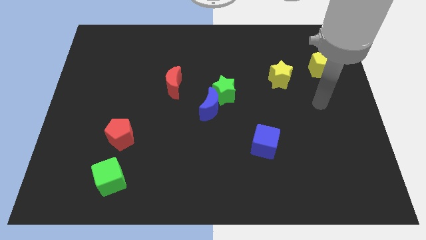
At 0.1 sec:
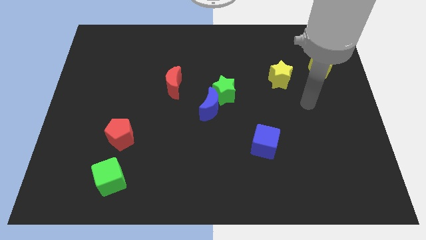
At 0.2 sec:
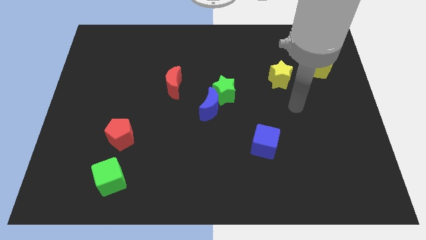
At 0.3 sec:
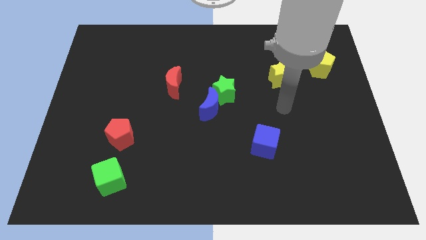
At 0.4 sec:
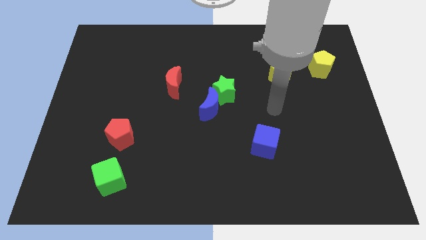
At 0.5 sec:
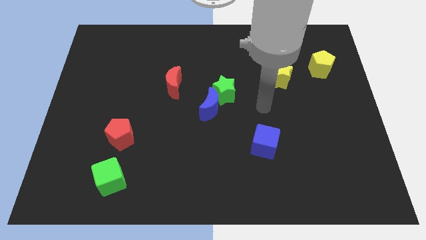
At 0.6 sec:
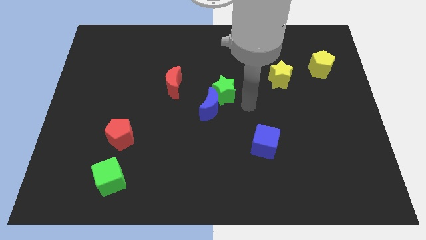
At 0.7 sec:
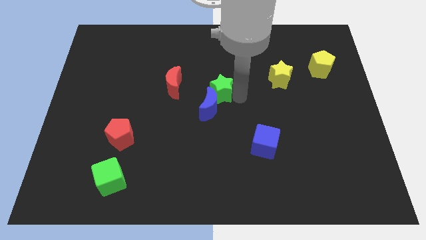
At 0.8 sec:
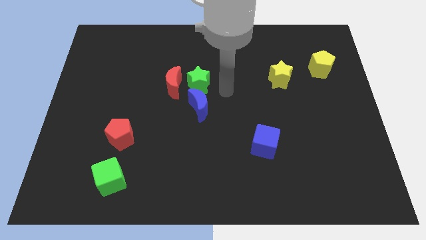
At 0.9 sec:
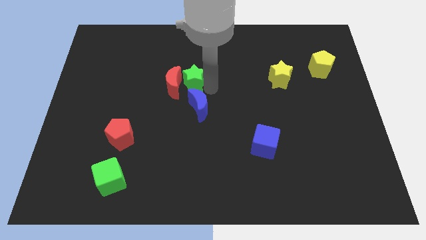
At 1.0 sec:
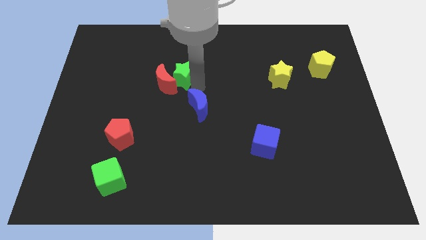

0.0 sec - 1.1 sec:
separate the blue moon from the green star

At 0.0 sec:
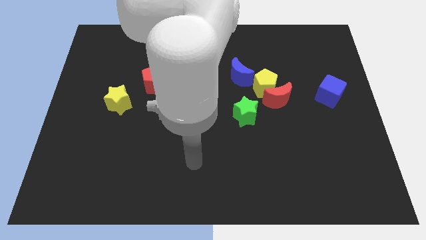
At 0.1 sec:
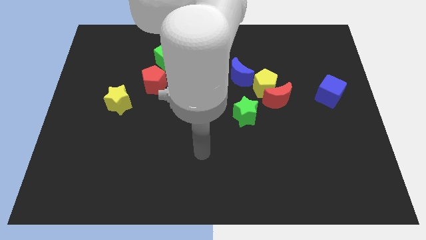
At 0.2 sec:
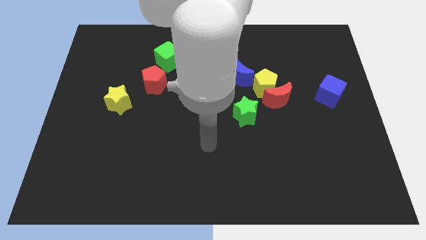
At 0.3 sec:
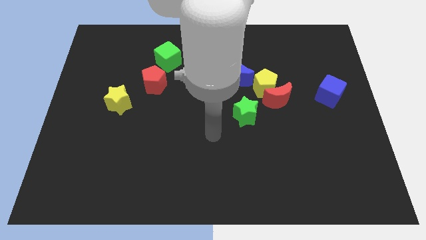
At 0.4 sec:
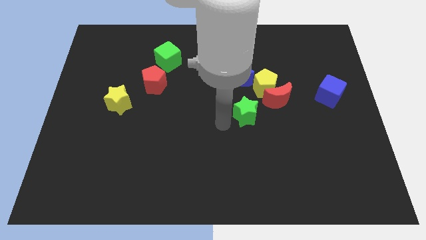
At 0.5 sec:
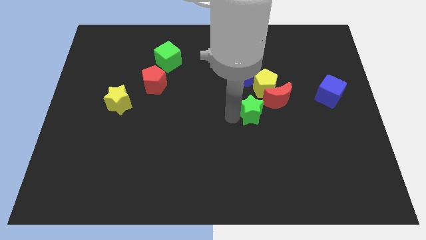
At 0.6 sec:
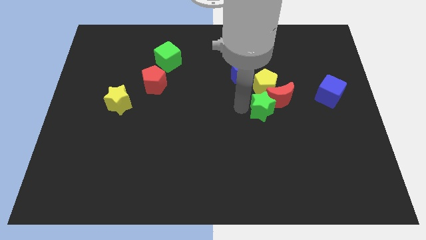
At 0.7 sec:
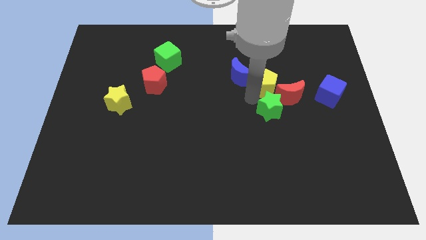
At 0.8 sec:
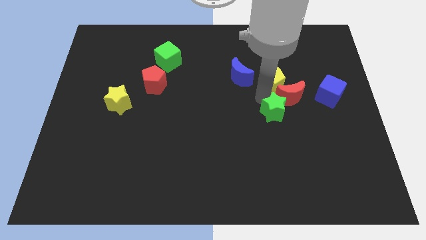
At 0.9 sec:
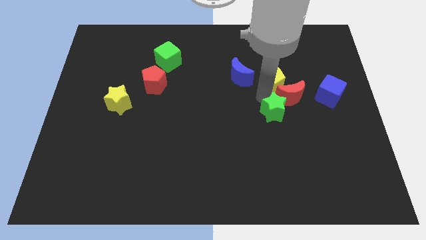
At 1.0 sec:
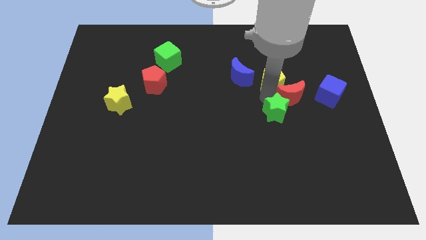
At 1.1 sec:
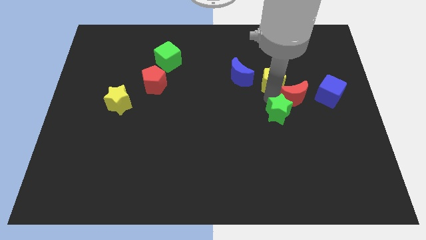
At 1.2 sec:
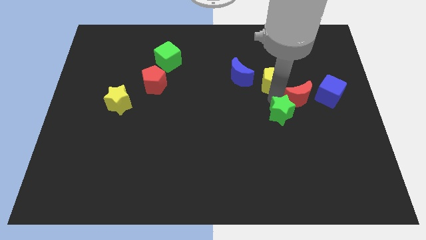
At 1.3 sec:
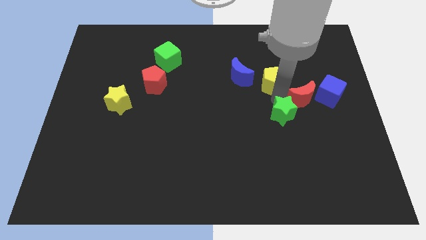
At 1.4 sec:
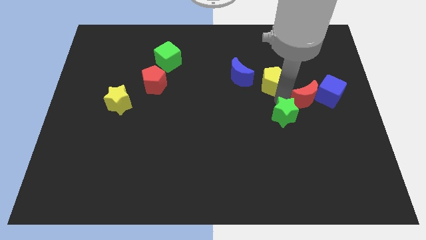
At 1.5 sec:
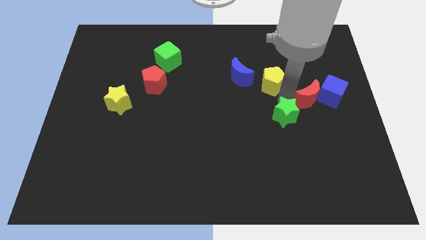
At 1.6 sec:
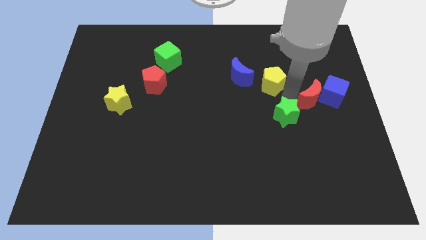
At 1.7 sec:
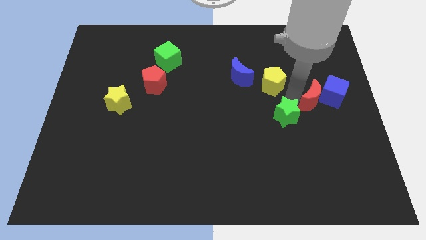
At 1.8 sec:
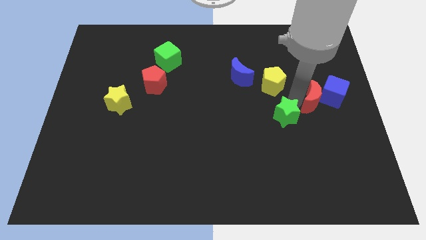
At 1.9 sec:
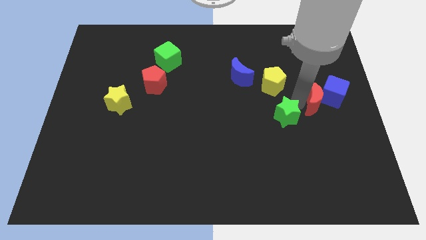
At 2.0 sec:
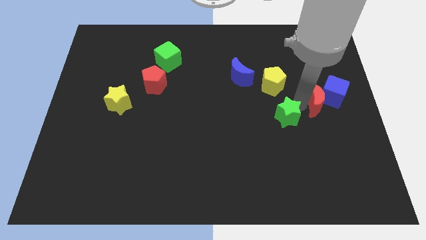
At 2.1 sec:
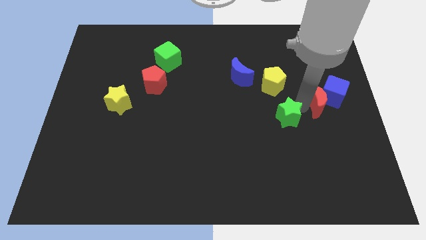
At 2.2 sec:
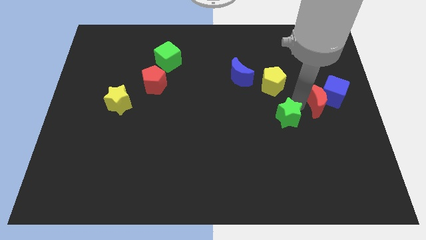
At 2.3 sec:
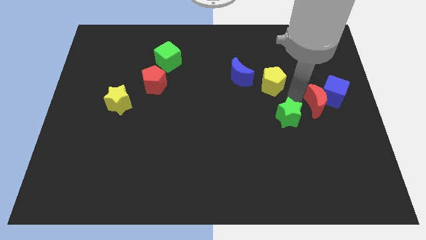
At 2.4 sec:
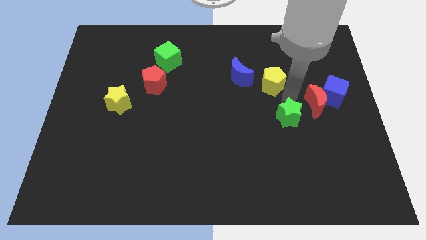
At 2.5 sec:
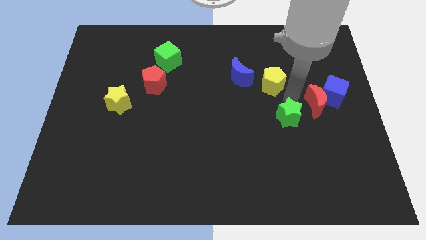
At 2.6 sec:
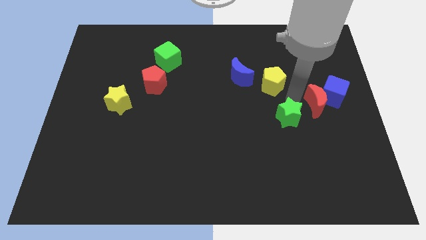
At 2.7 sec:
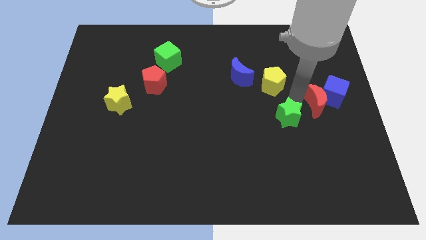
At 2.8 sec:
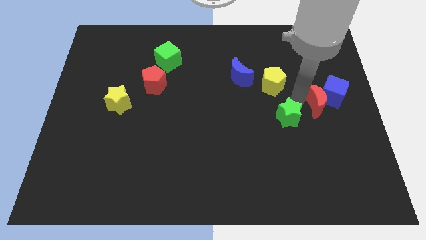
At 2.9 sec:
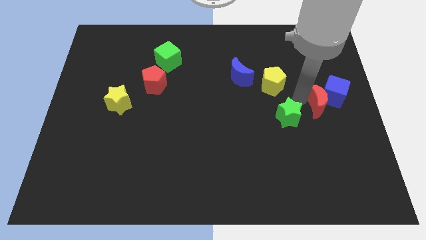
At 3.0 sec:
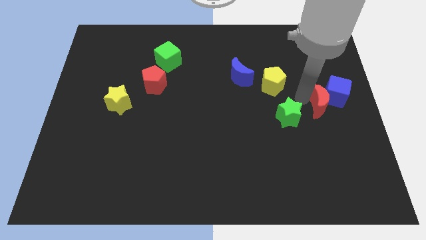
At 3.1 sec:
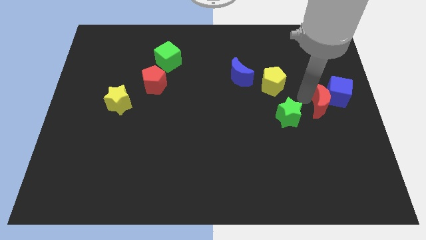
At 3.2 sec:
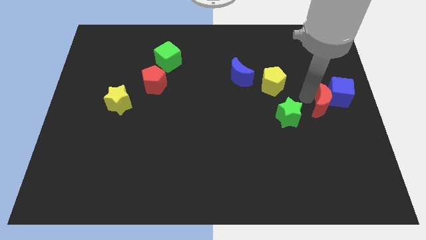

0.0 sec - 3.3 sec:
pull the red moon apart from the yellow pentagon and green star

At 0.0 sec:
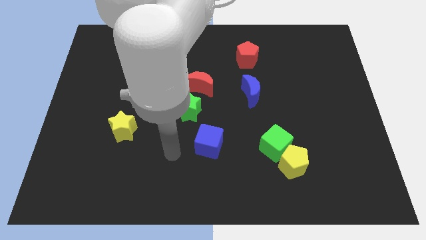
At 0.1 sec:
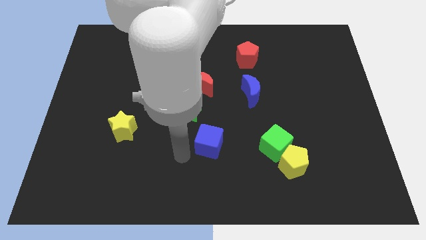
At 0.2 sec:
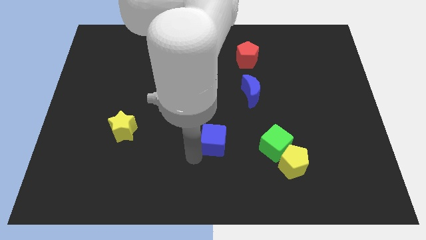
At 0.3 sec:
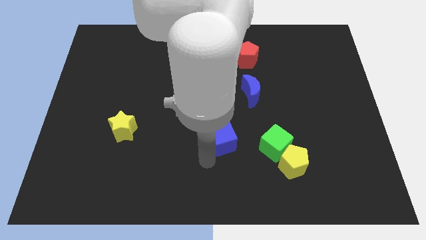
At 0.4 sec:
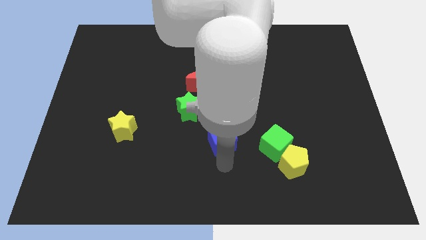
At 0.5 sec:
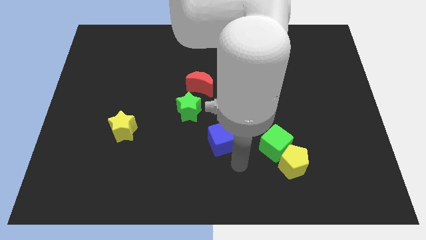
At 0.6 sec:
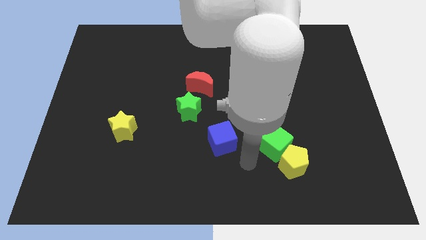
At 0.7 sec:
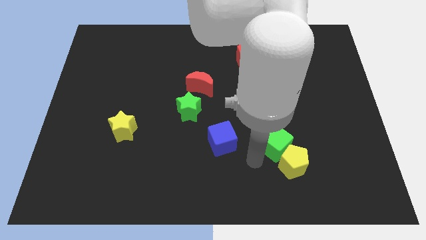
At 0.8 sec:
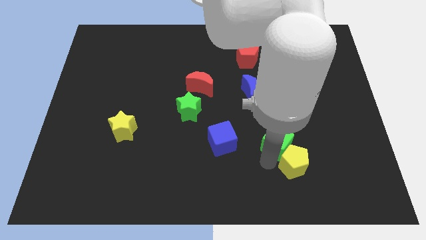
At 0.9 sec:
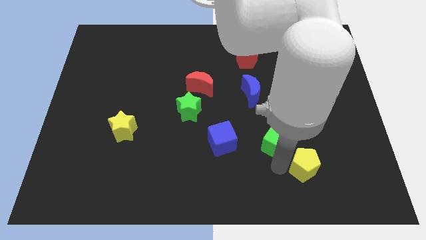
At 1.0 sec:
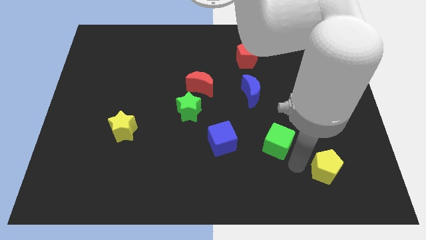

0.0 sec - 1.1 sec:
pull the green cube apart from the yellow pentagon

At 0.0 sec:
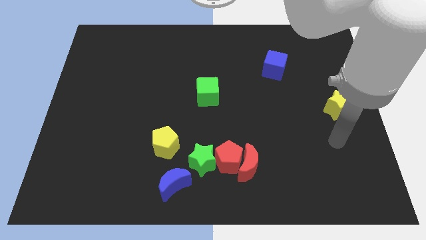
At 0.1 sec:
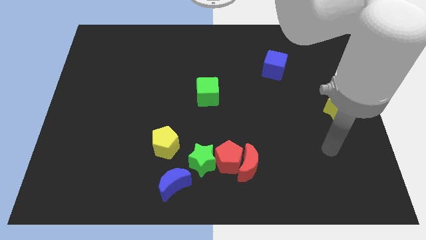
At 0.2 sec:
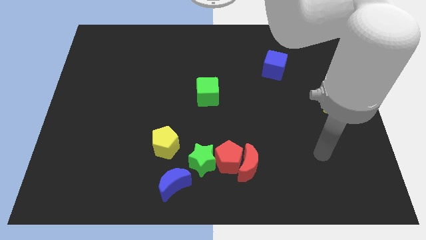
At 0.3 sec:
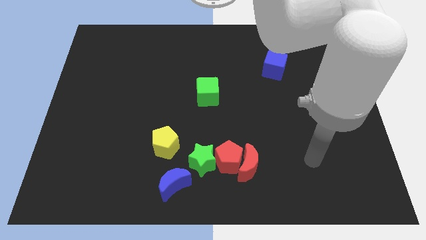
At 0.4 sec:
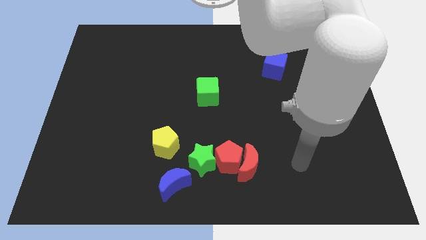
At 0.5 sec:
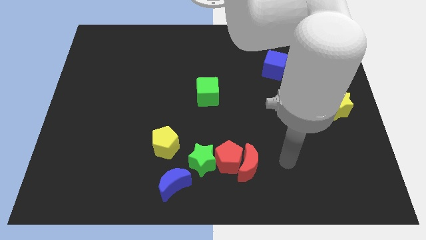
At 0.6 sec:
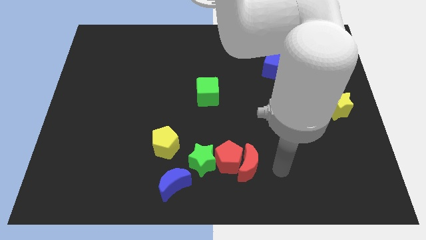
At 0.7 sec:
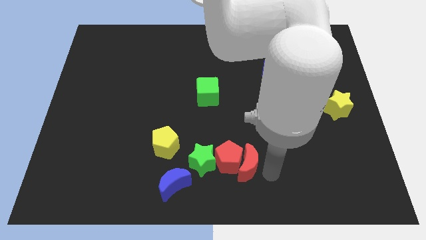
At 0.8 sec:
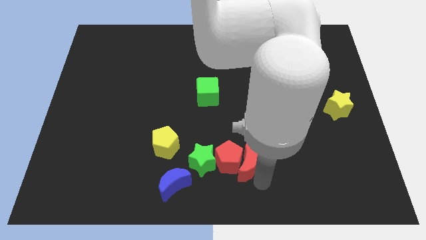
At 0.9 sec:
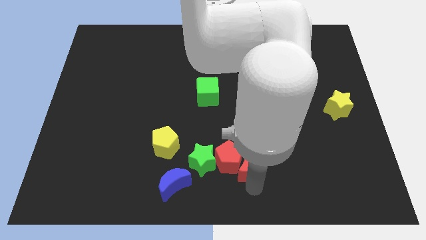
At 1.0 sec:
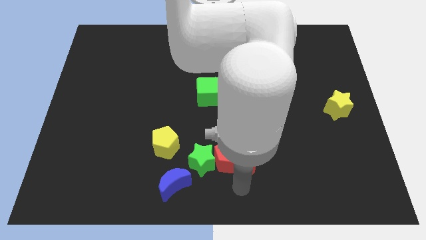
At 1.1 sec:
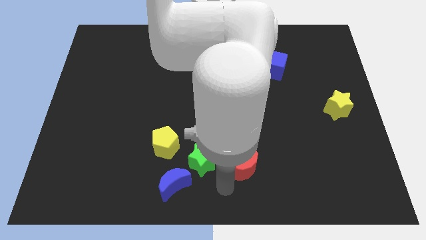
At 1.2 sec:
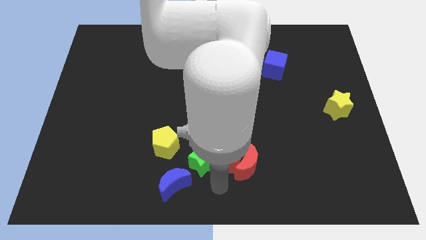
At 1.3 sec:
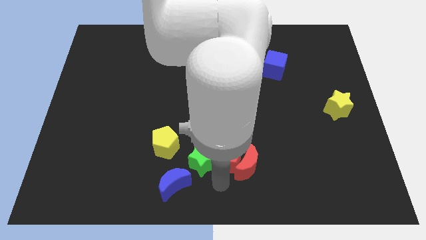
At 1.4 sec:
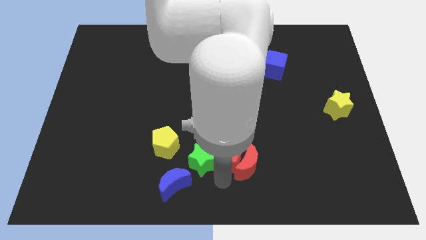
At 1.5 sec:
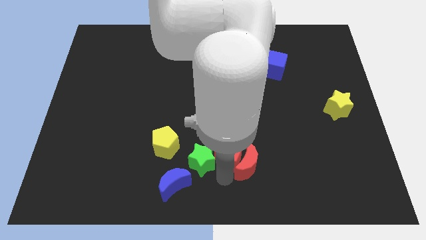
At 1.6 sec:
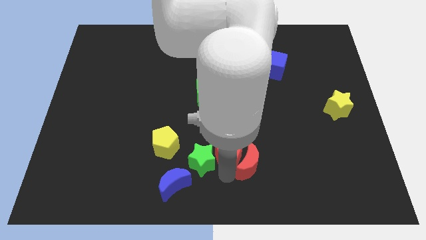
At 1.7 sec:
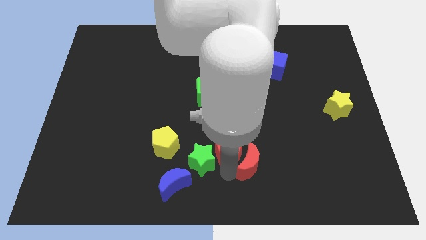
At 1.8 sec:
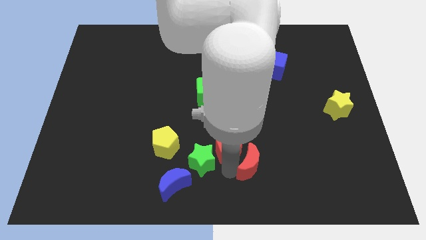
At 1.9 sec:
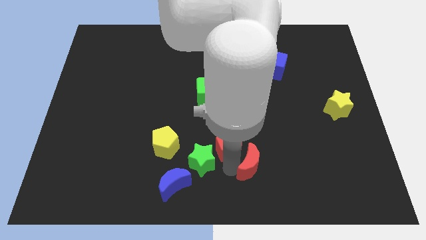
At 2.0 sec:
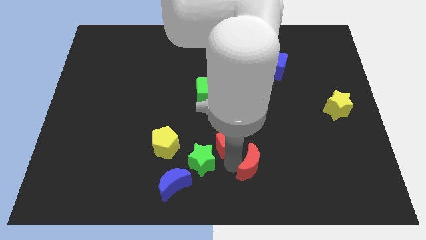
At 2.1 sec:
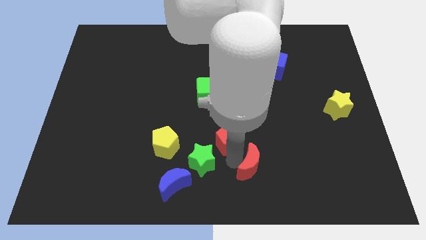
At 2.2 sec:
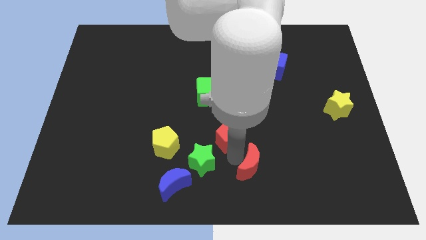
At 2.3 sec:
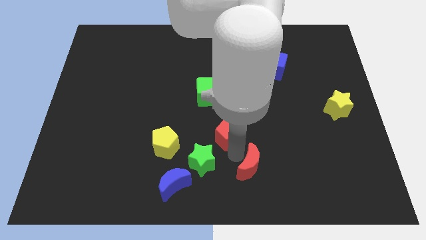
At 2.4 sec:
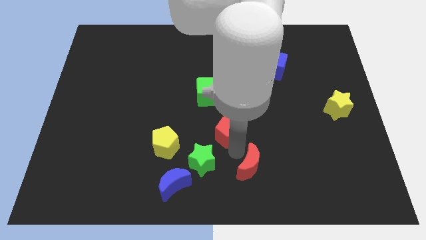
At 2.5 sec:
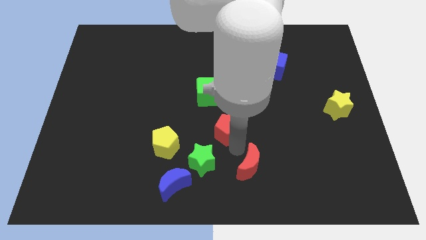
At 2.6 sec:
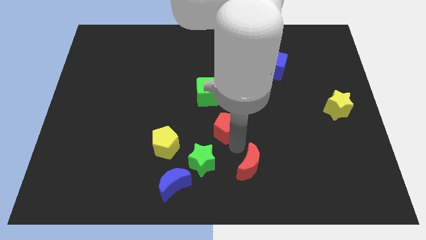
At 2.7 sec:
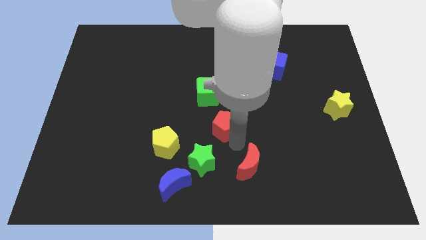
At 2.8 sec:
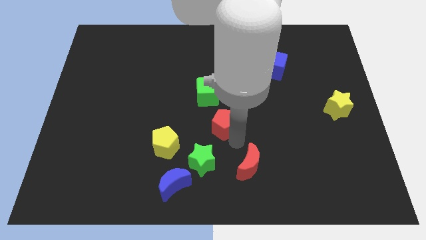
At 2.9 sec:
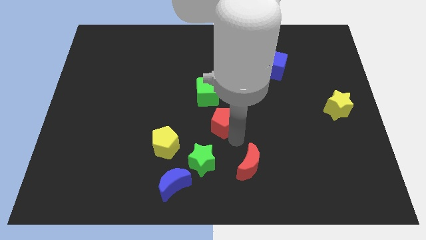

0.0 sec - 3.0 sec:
pull the red pentagon apart from the red moon and green star

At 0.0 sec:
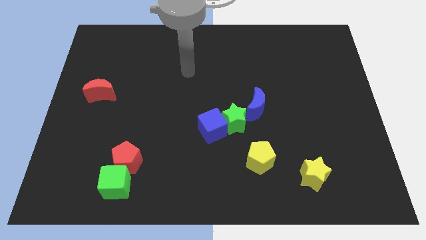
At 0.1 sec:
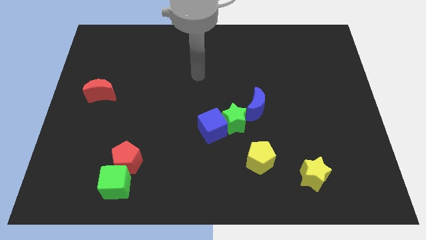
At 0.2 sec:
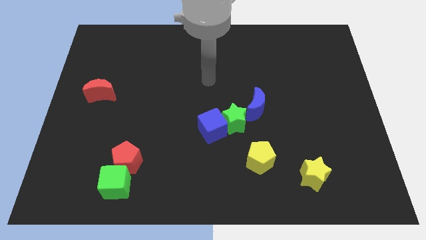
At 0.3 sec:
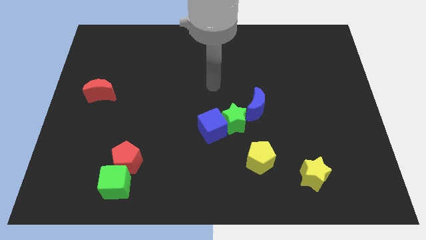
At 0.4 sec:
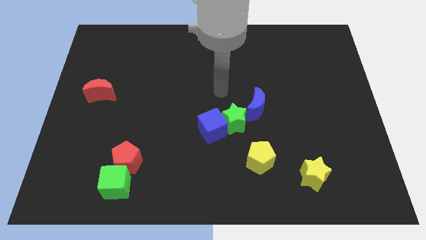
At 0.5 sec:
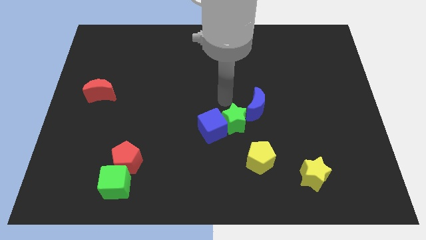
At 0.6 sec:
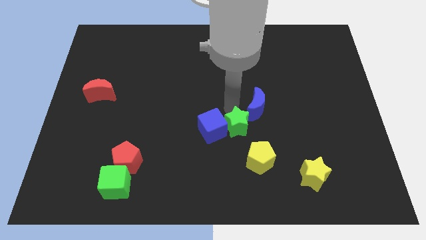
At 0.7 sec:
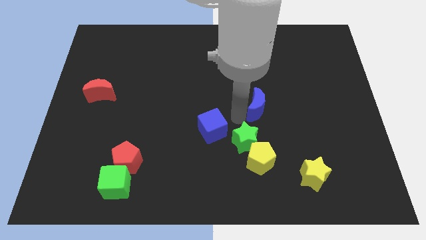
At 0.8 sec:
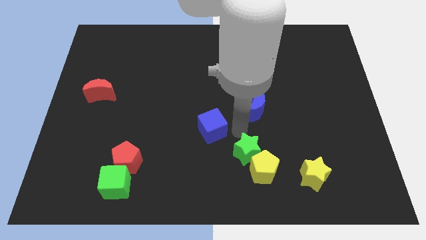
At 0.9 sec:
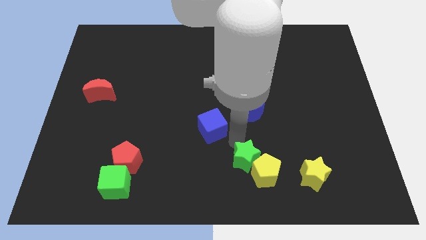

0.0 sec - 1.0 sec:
separate the blue cube from the green star
